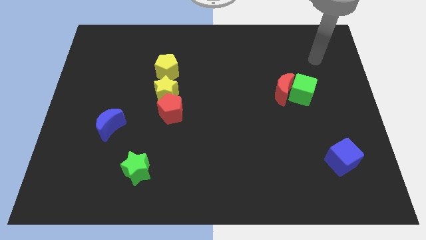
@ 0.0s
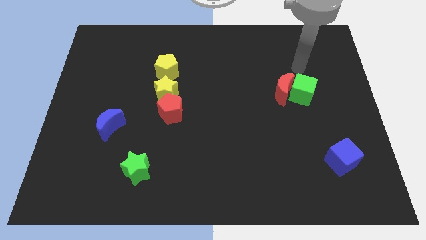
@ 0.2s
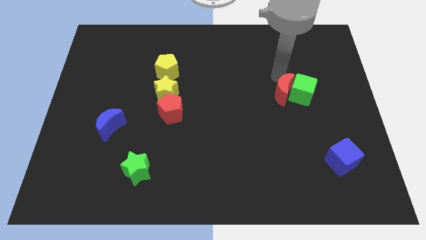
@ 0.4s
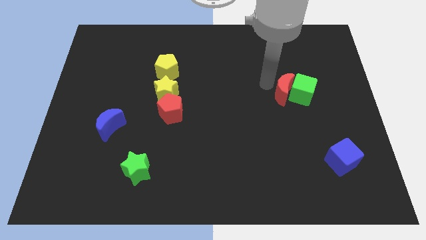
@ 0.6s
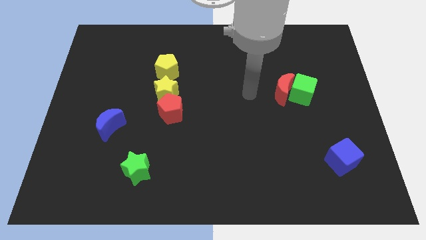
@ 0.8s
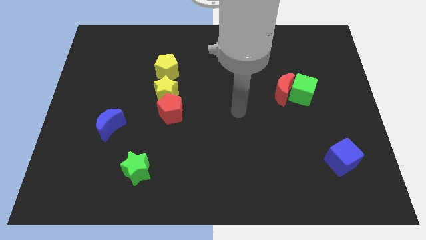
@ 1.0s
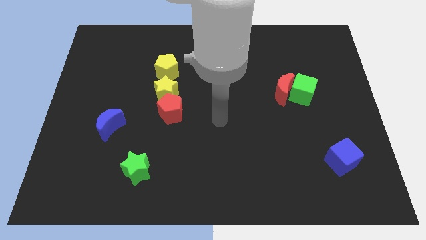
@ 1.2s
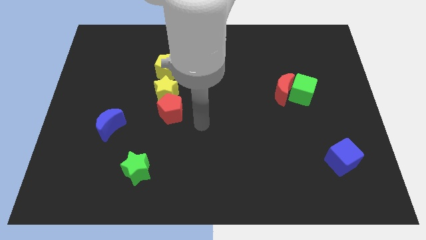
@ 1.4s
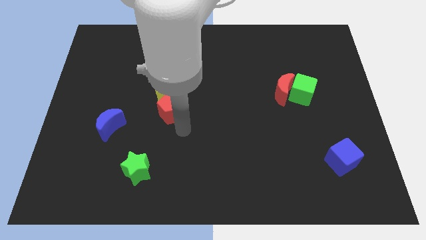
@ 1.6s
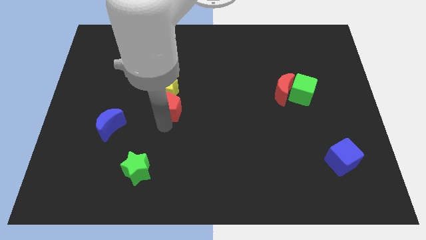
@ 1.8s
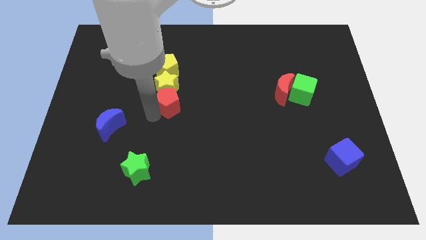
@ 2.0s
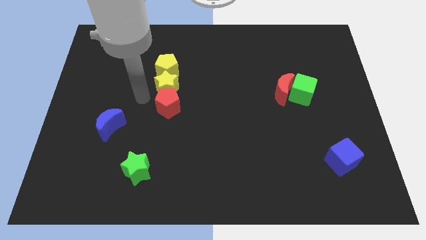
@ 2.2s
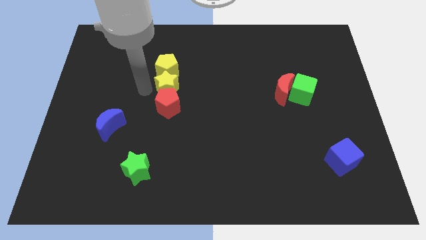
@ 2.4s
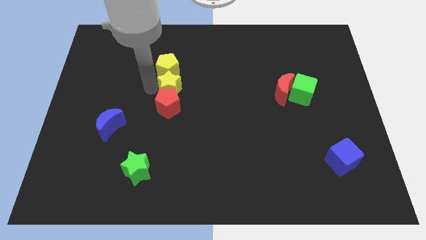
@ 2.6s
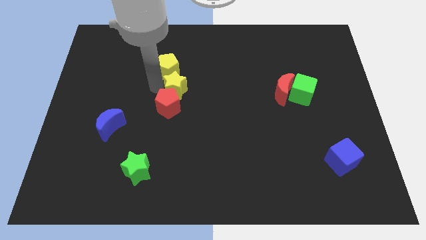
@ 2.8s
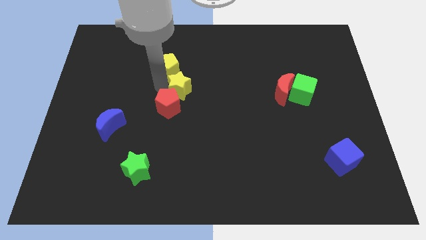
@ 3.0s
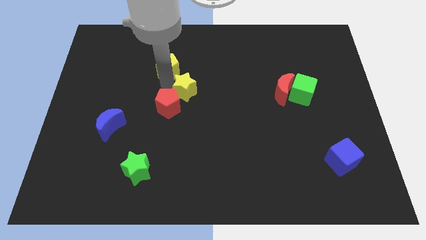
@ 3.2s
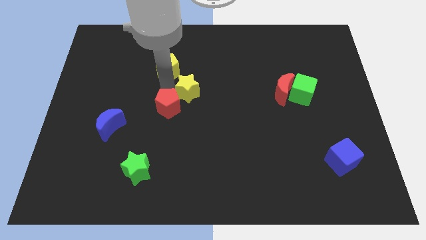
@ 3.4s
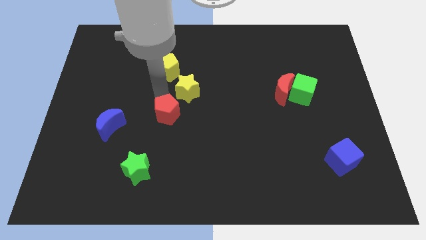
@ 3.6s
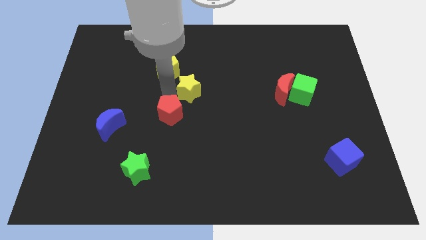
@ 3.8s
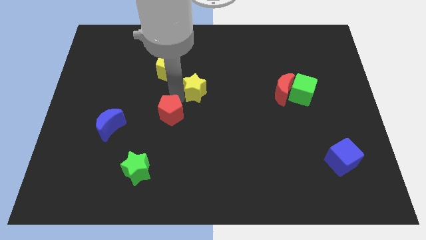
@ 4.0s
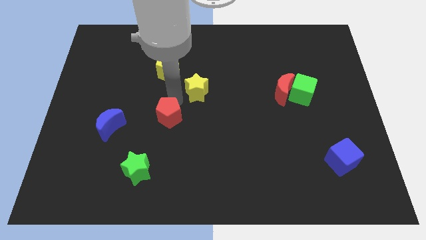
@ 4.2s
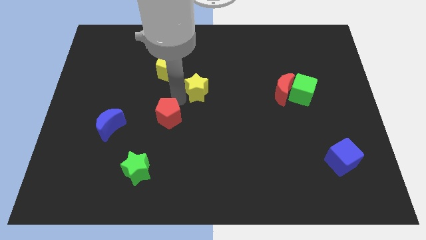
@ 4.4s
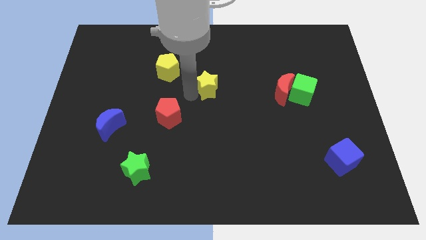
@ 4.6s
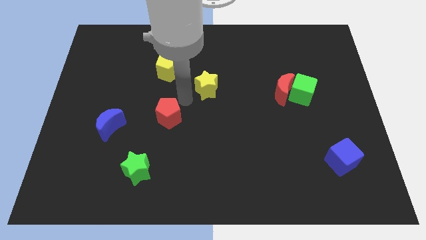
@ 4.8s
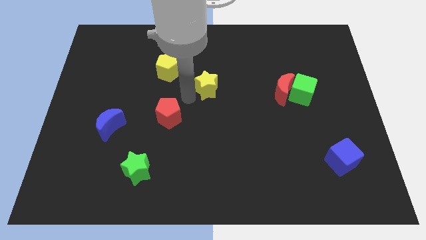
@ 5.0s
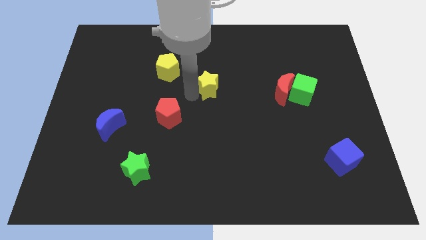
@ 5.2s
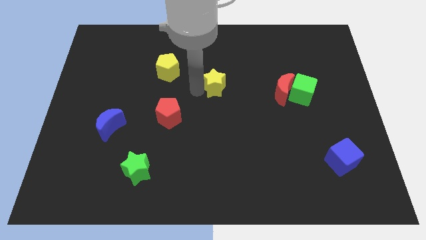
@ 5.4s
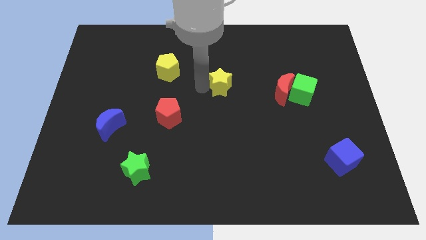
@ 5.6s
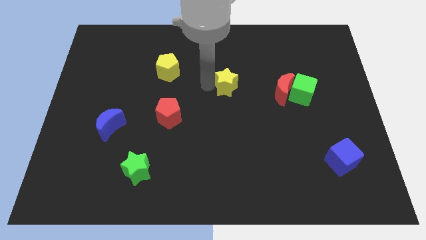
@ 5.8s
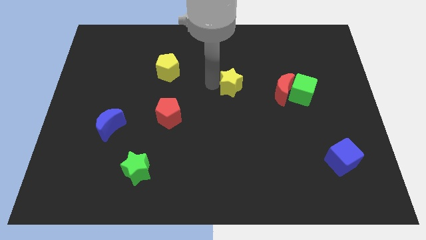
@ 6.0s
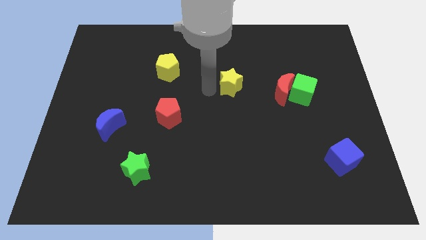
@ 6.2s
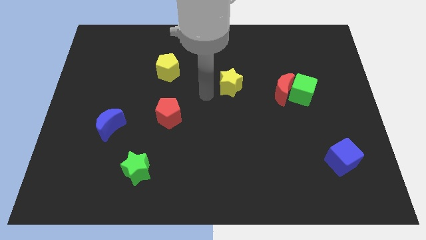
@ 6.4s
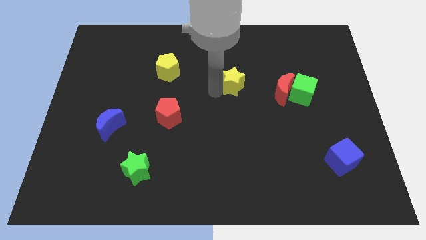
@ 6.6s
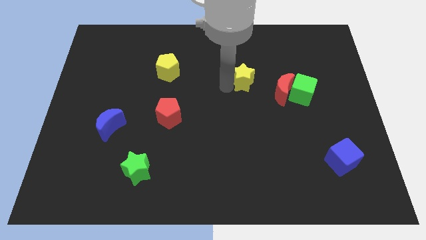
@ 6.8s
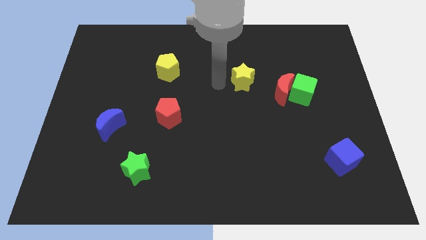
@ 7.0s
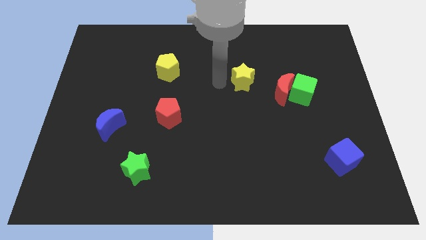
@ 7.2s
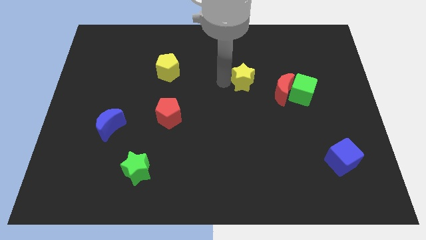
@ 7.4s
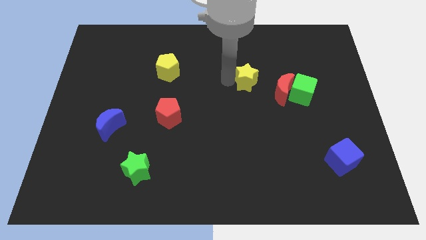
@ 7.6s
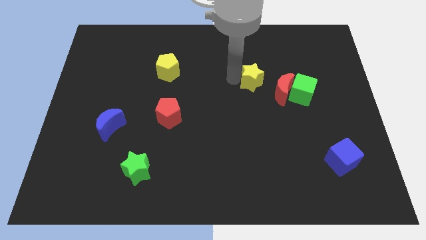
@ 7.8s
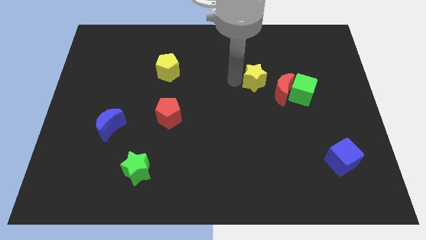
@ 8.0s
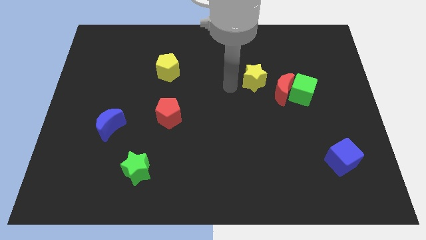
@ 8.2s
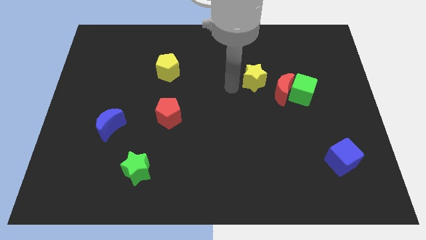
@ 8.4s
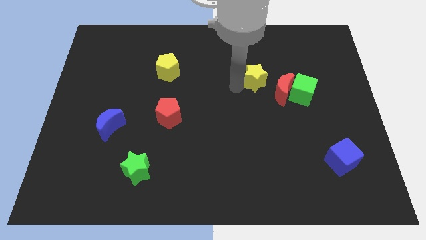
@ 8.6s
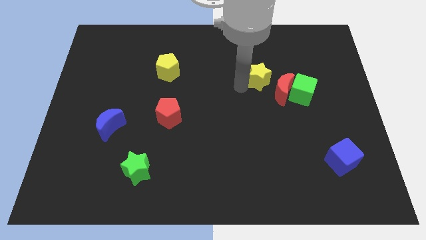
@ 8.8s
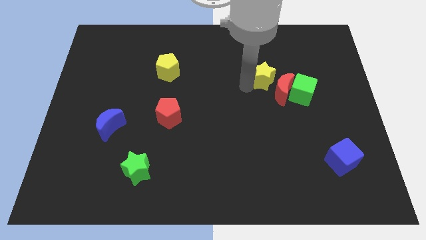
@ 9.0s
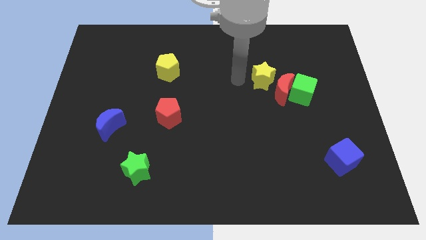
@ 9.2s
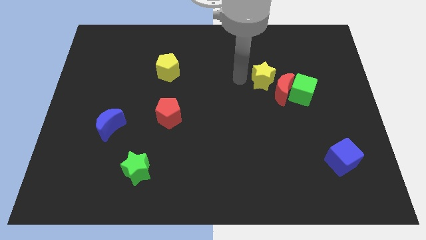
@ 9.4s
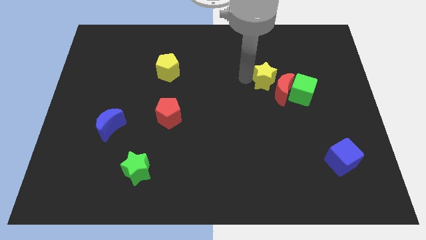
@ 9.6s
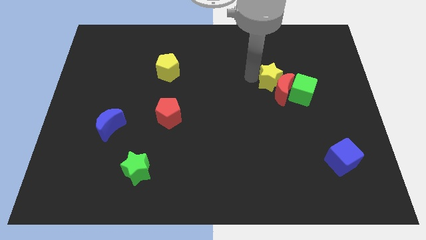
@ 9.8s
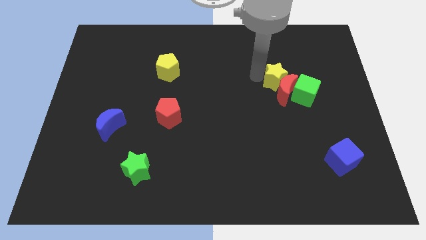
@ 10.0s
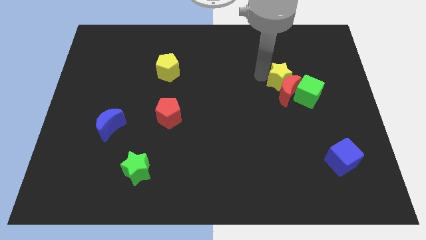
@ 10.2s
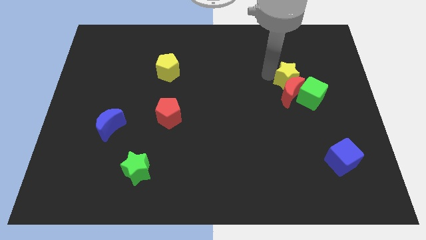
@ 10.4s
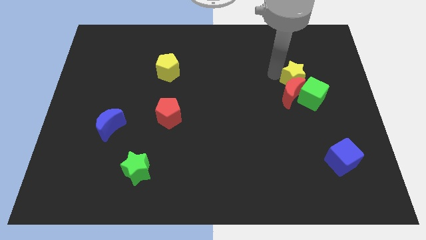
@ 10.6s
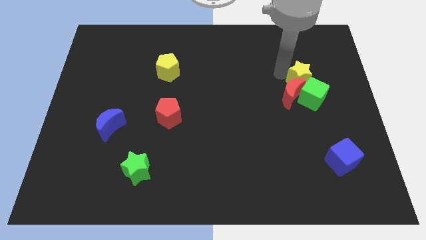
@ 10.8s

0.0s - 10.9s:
slide the yellow star to the green cube

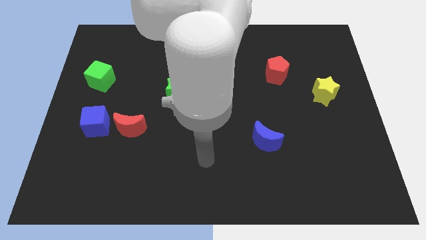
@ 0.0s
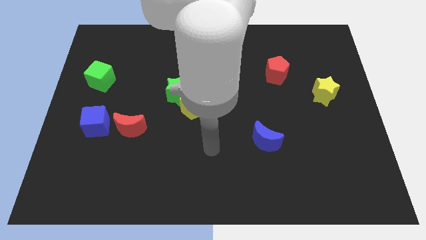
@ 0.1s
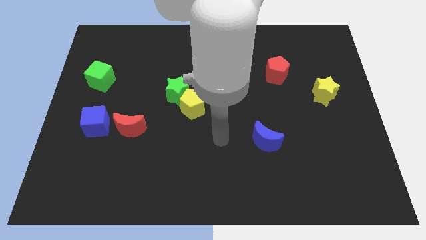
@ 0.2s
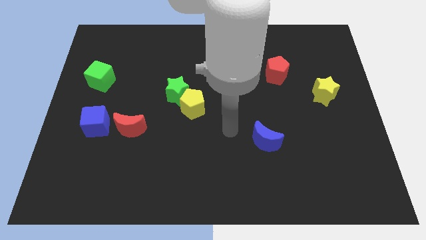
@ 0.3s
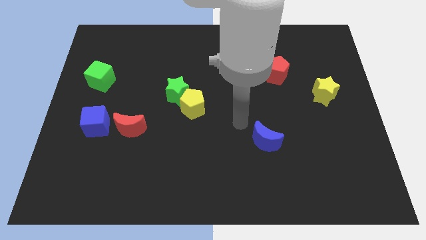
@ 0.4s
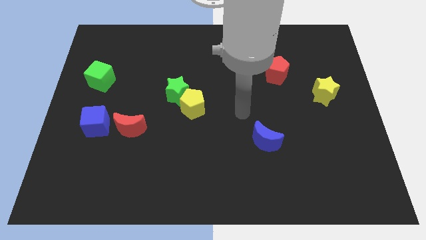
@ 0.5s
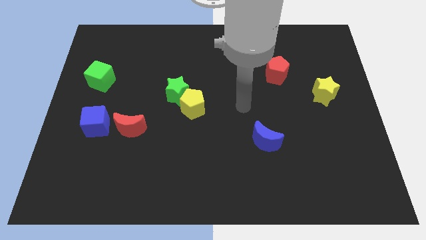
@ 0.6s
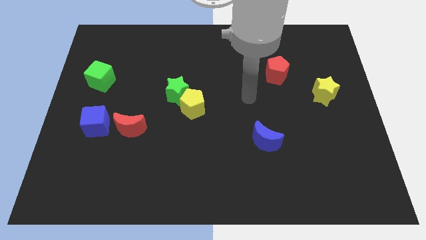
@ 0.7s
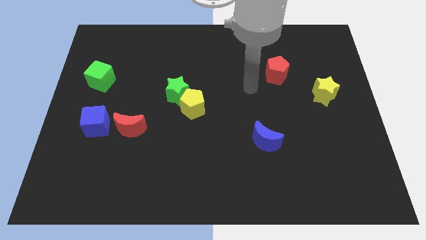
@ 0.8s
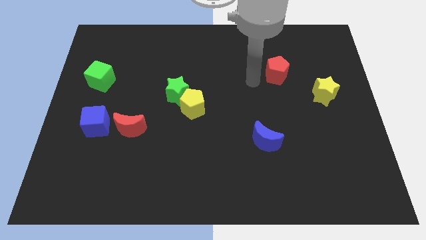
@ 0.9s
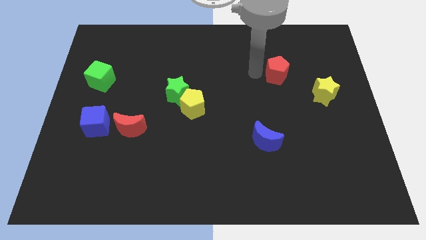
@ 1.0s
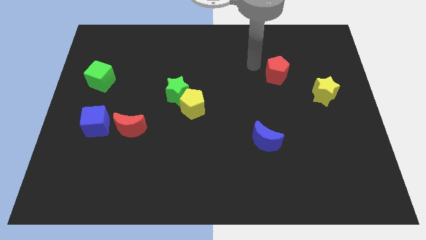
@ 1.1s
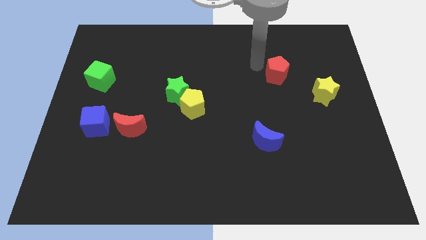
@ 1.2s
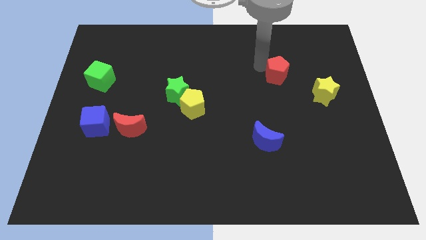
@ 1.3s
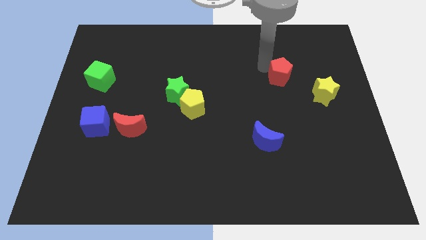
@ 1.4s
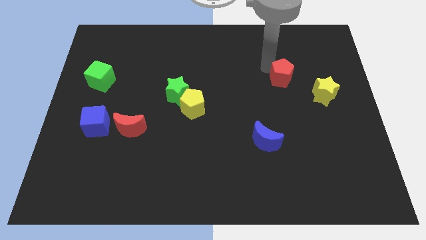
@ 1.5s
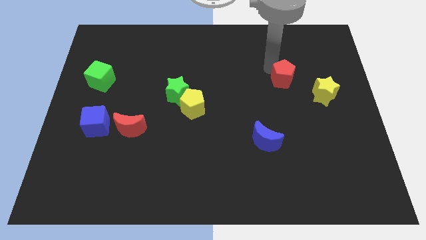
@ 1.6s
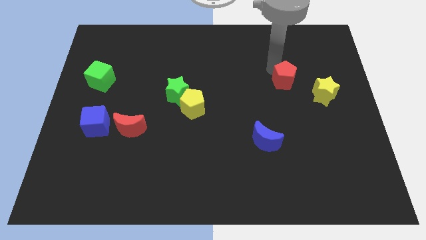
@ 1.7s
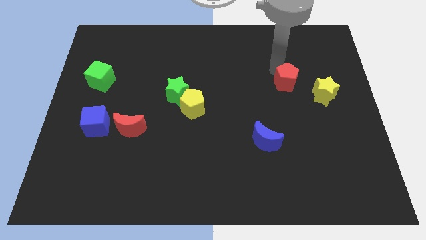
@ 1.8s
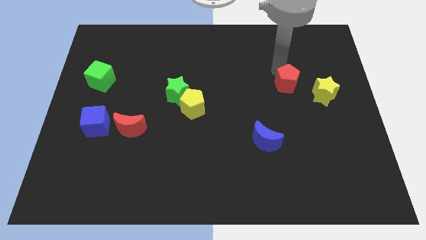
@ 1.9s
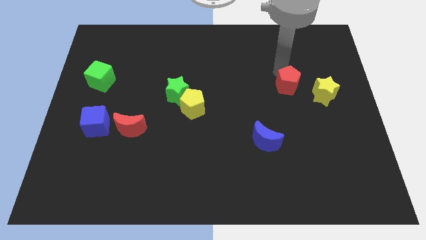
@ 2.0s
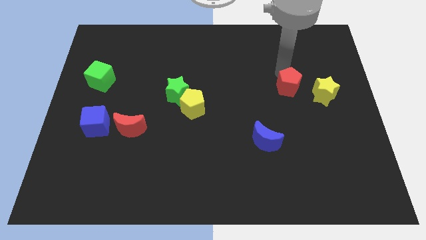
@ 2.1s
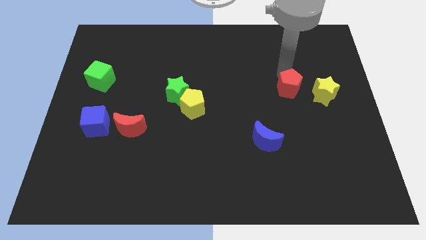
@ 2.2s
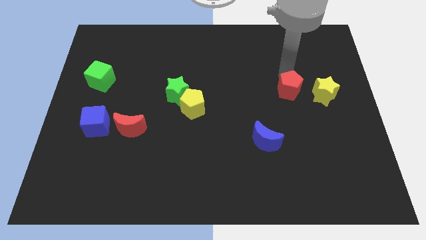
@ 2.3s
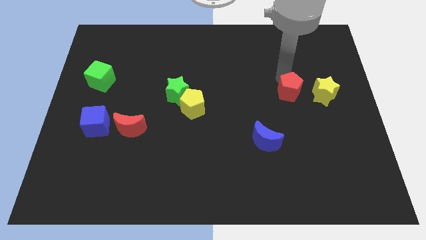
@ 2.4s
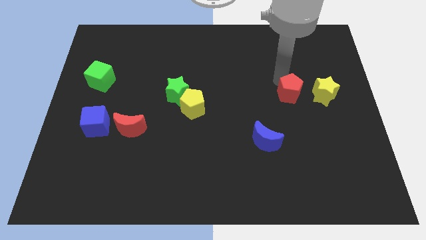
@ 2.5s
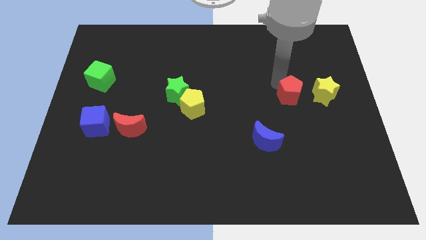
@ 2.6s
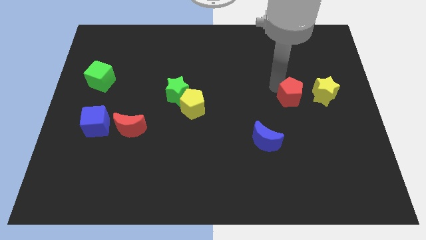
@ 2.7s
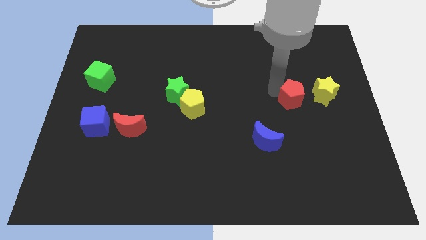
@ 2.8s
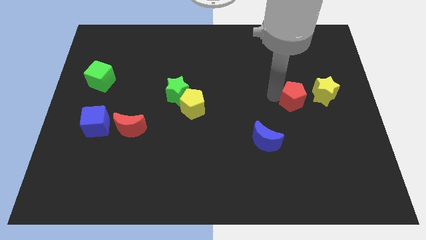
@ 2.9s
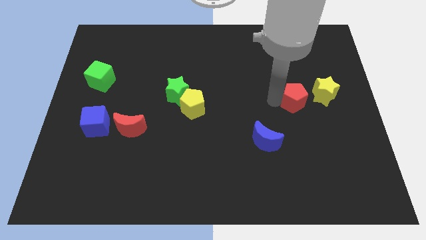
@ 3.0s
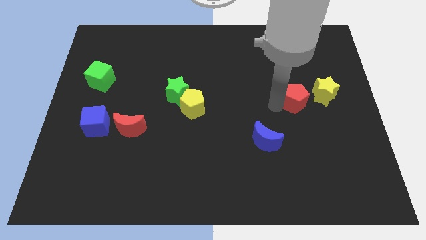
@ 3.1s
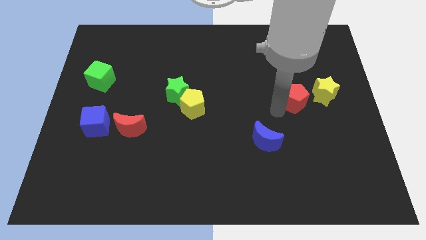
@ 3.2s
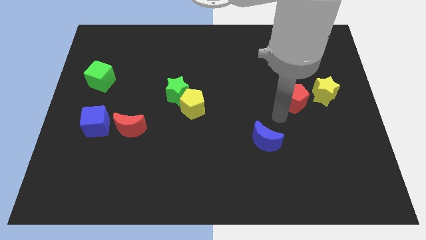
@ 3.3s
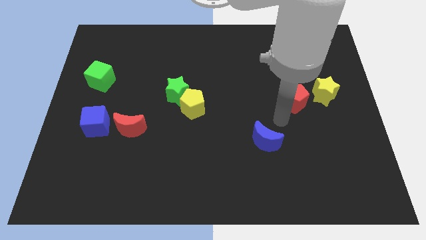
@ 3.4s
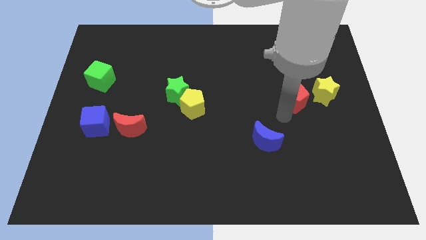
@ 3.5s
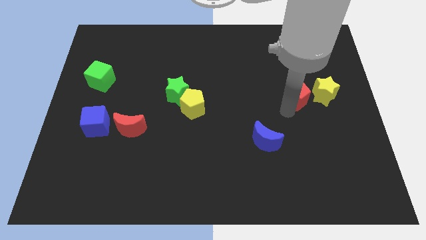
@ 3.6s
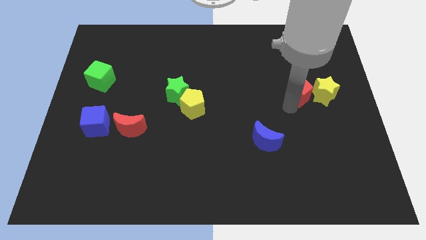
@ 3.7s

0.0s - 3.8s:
put the red pentagon close to the yellow star
